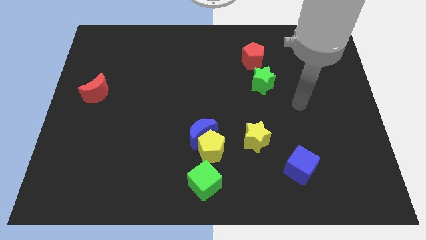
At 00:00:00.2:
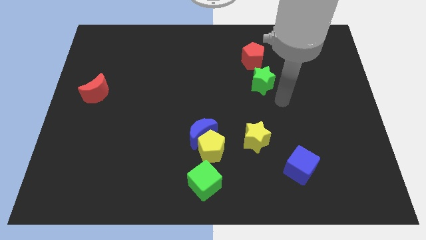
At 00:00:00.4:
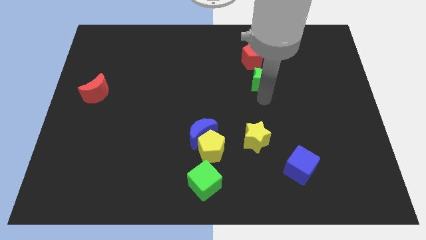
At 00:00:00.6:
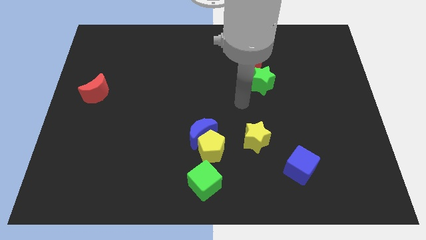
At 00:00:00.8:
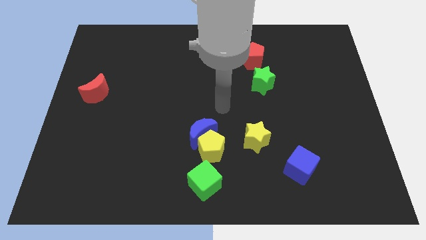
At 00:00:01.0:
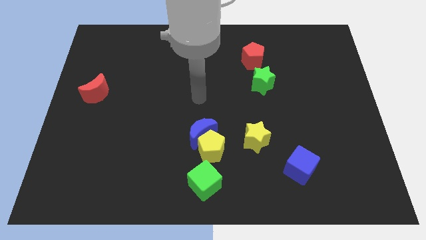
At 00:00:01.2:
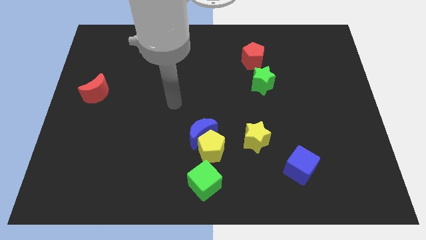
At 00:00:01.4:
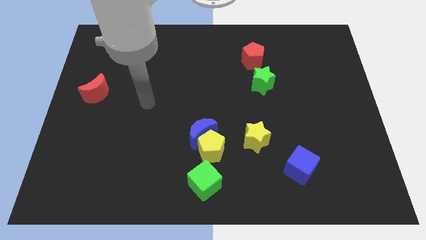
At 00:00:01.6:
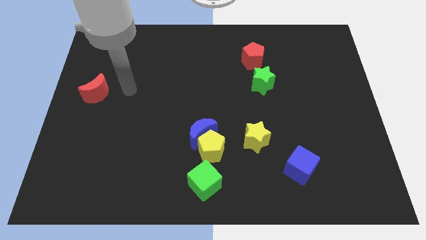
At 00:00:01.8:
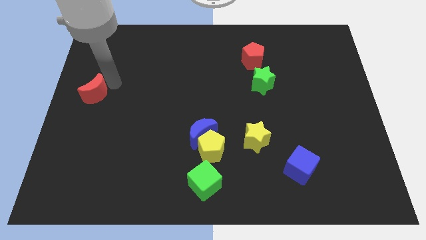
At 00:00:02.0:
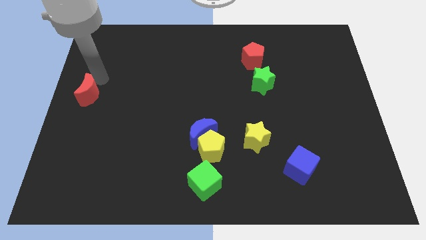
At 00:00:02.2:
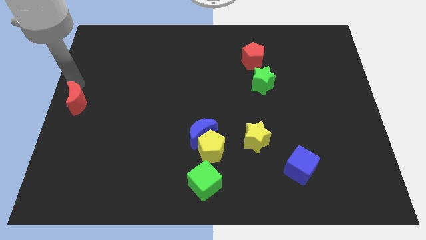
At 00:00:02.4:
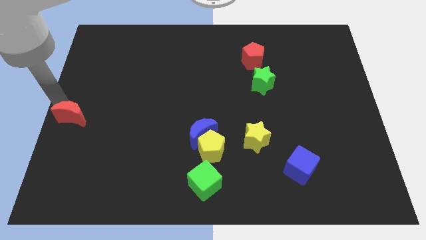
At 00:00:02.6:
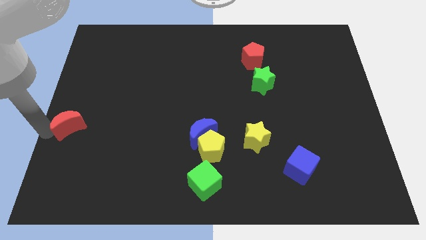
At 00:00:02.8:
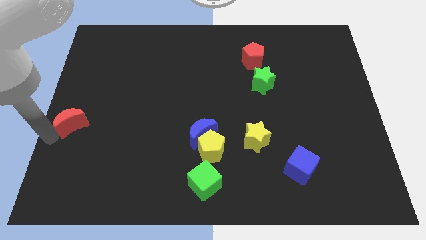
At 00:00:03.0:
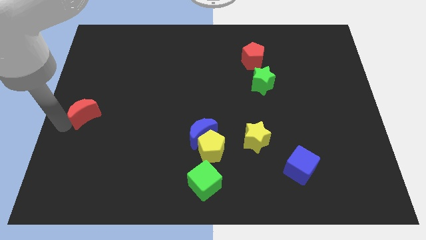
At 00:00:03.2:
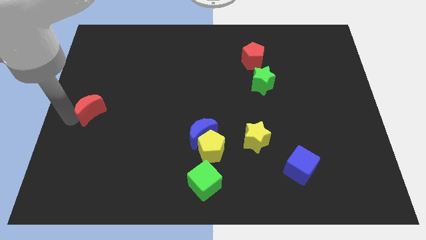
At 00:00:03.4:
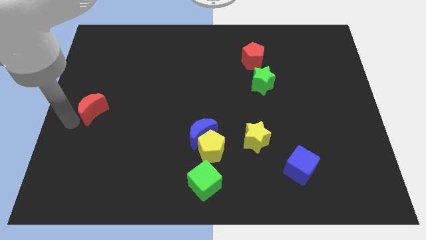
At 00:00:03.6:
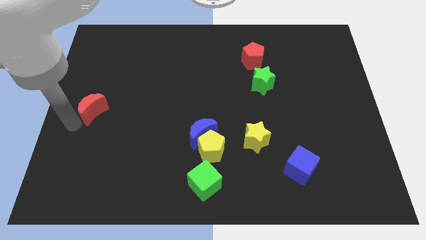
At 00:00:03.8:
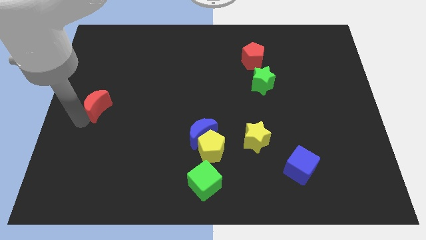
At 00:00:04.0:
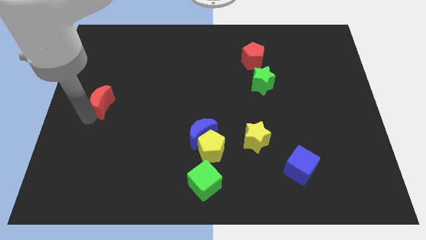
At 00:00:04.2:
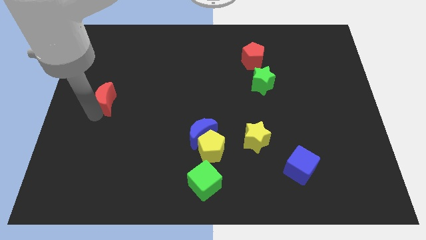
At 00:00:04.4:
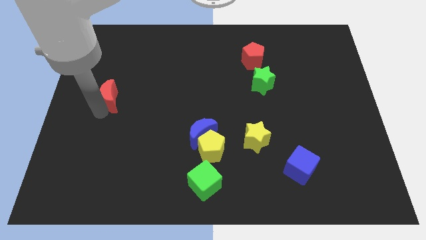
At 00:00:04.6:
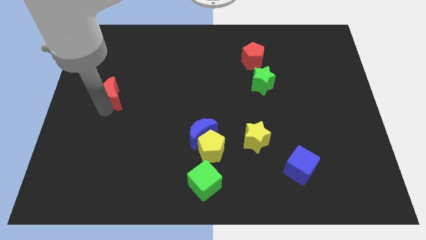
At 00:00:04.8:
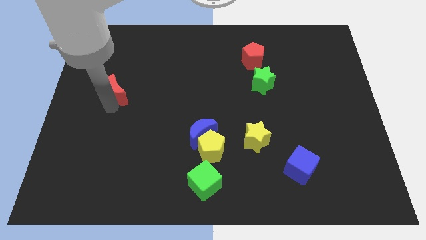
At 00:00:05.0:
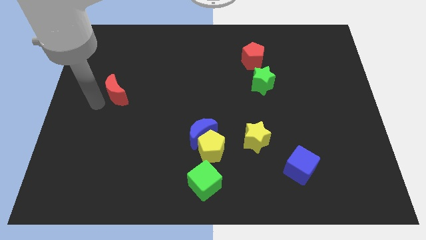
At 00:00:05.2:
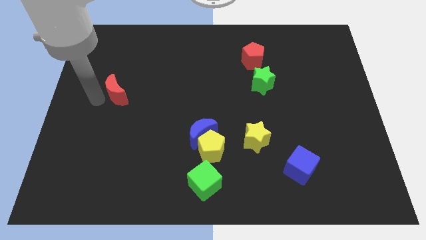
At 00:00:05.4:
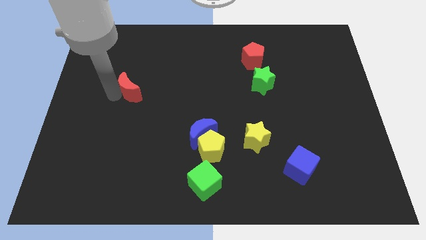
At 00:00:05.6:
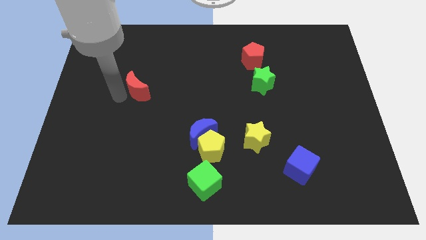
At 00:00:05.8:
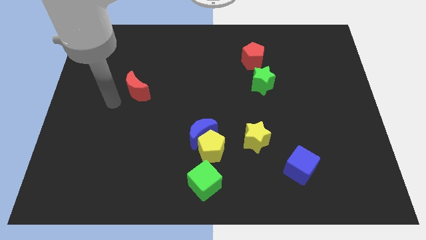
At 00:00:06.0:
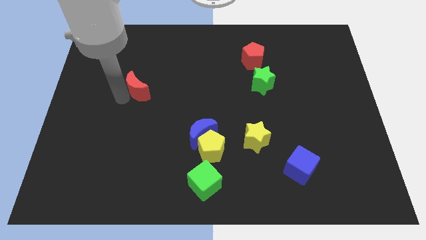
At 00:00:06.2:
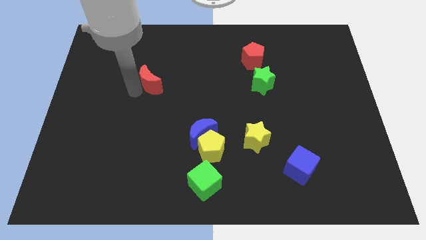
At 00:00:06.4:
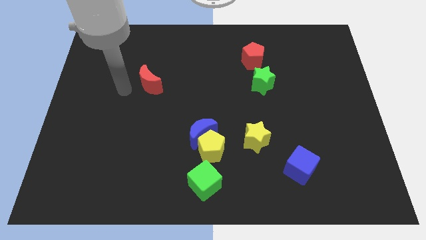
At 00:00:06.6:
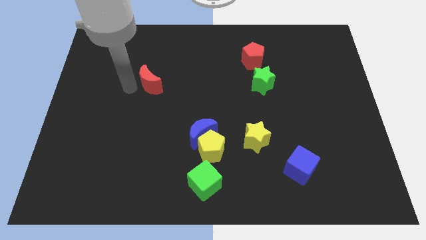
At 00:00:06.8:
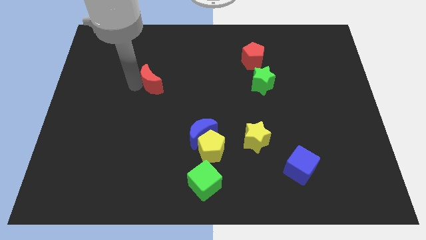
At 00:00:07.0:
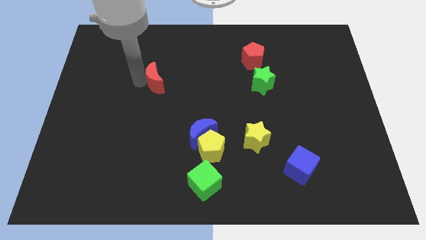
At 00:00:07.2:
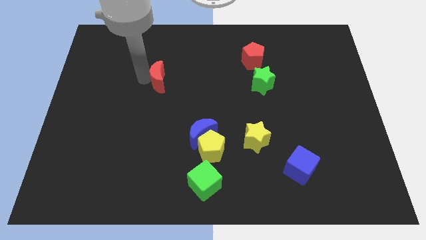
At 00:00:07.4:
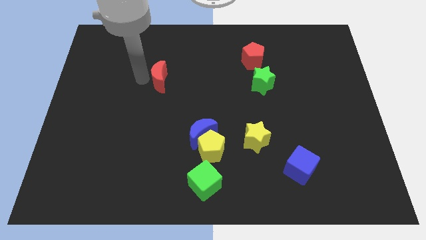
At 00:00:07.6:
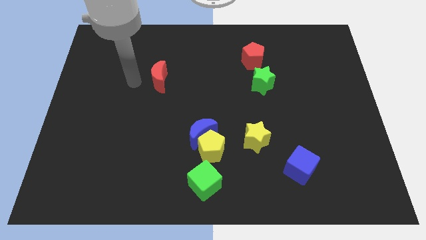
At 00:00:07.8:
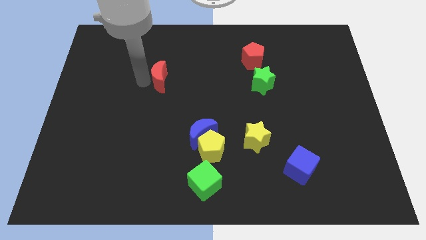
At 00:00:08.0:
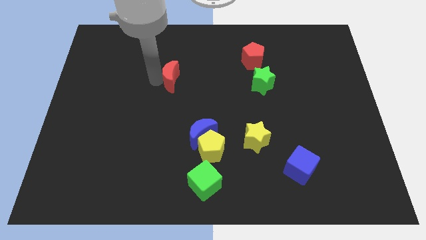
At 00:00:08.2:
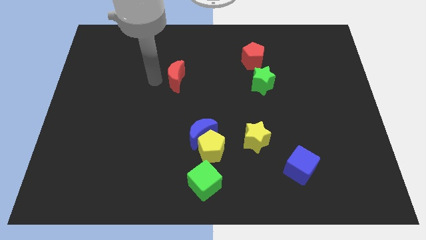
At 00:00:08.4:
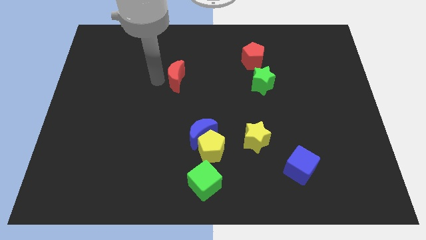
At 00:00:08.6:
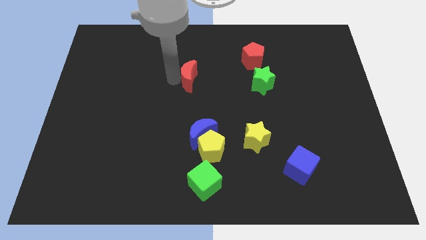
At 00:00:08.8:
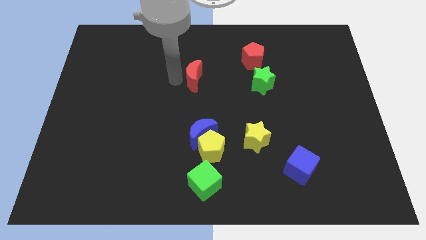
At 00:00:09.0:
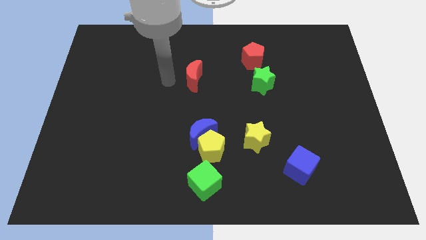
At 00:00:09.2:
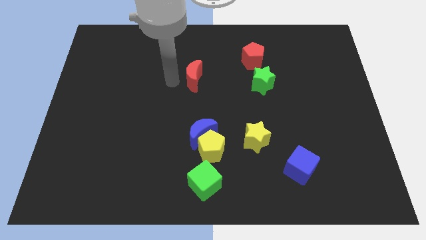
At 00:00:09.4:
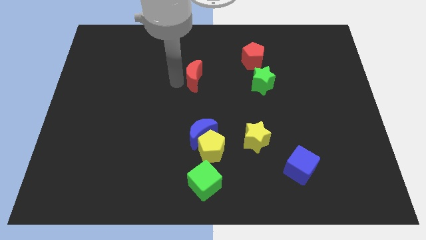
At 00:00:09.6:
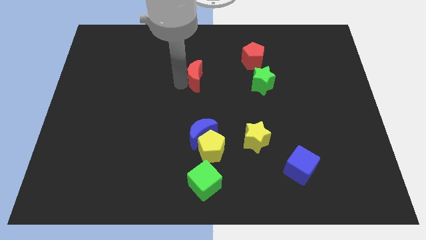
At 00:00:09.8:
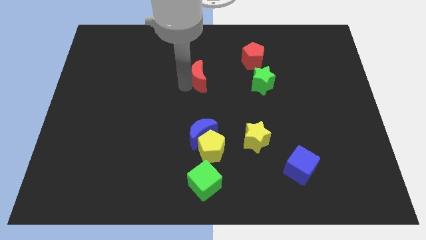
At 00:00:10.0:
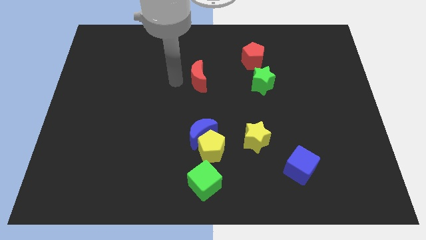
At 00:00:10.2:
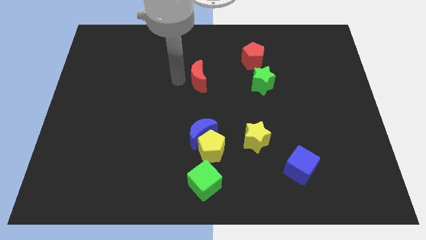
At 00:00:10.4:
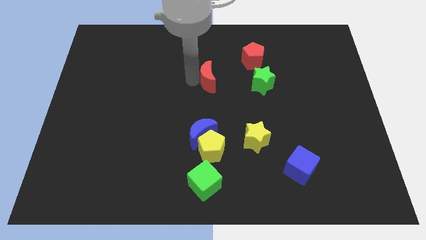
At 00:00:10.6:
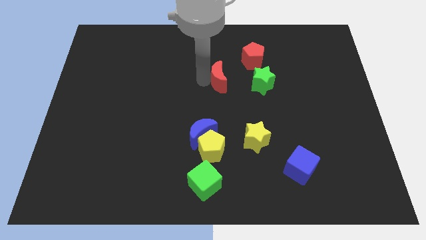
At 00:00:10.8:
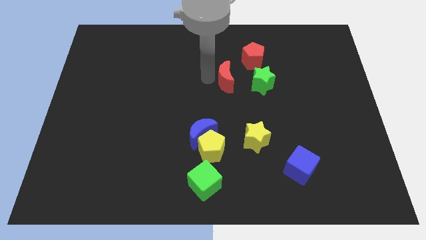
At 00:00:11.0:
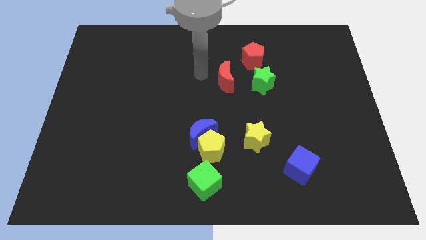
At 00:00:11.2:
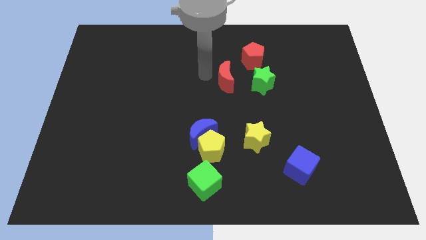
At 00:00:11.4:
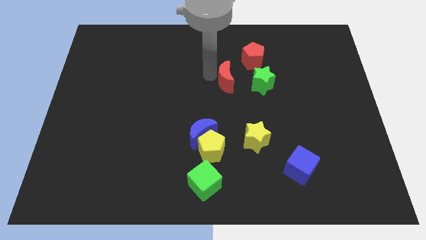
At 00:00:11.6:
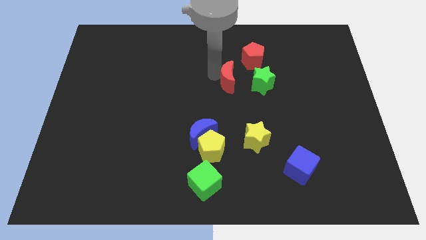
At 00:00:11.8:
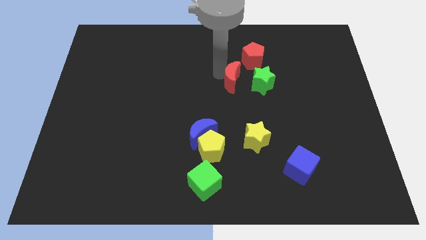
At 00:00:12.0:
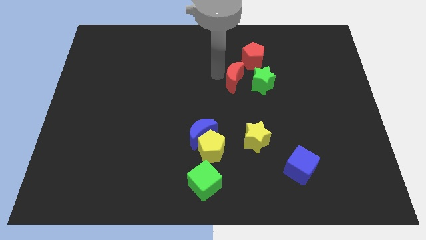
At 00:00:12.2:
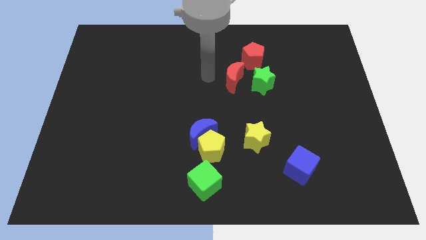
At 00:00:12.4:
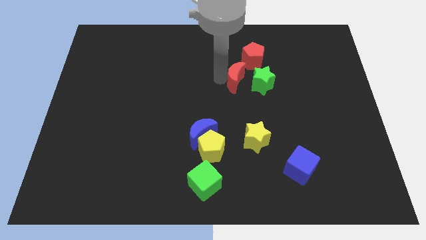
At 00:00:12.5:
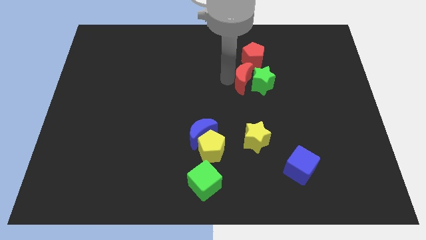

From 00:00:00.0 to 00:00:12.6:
move the red moon close to the green star

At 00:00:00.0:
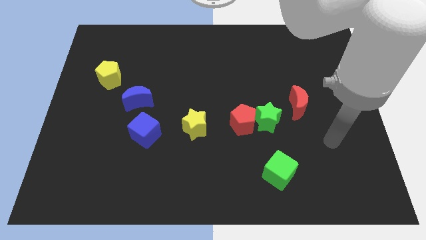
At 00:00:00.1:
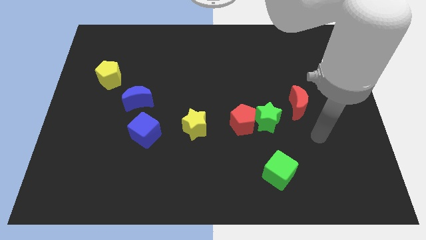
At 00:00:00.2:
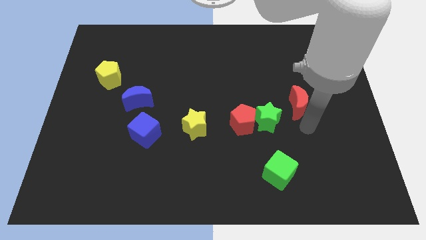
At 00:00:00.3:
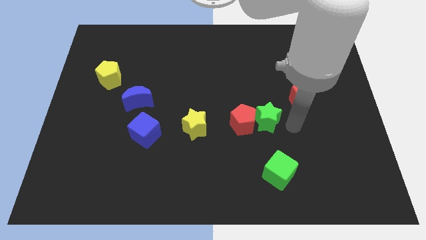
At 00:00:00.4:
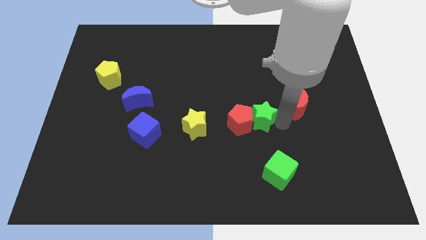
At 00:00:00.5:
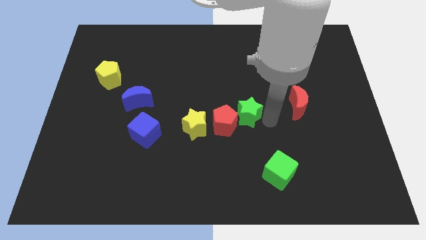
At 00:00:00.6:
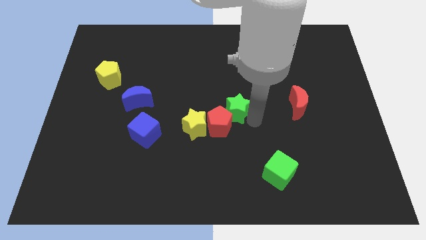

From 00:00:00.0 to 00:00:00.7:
put the red pentagon to the yellow star
